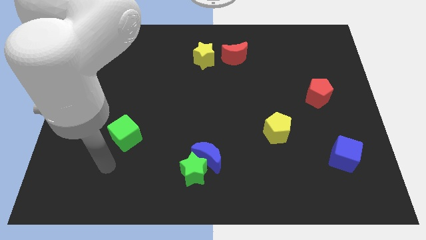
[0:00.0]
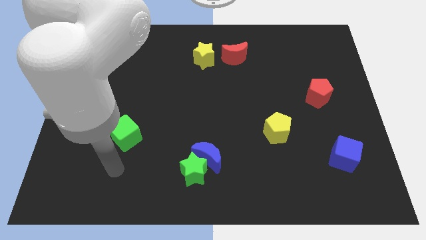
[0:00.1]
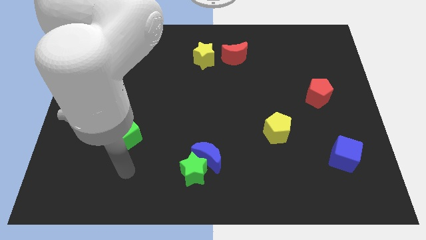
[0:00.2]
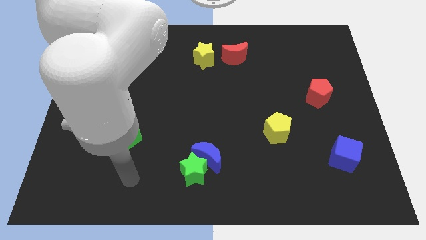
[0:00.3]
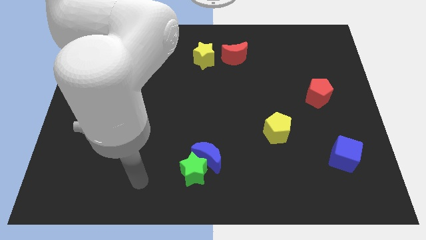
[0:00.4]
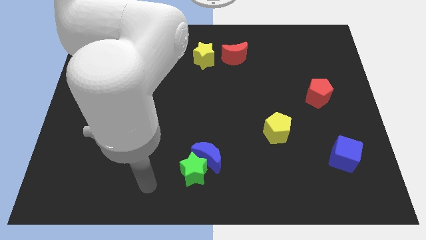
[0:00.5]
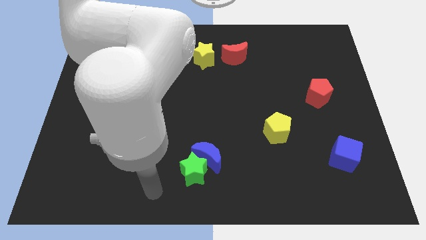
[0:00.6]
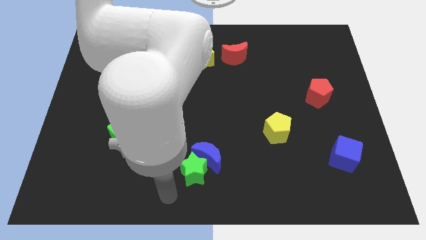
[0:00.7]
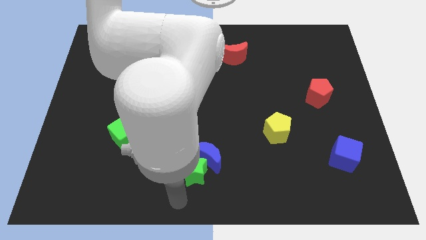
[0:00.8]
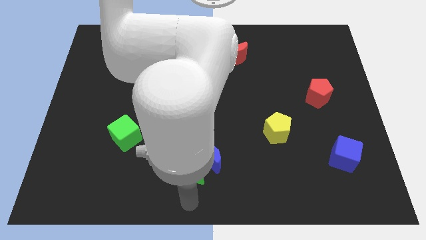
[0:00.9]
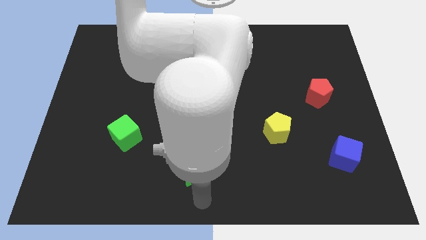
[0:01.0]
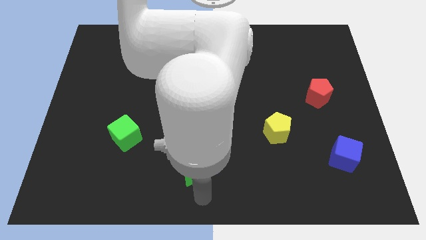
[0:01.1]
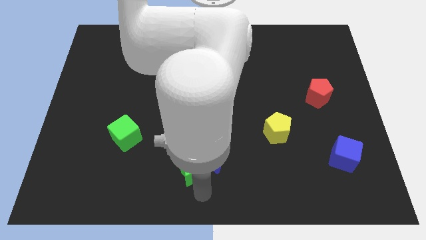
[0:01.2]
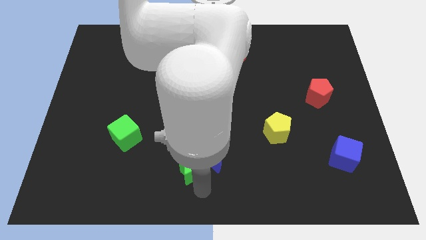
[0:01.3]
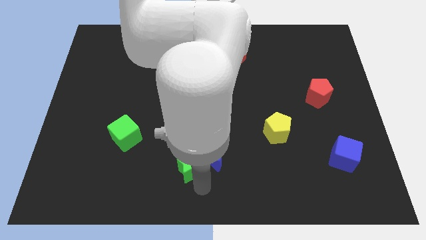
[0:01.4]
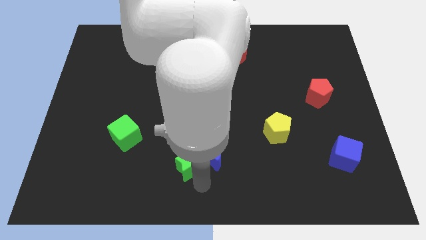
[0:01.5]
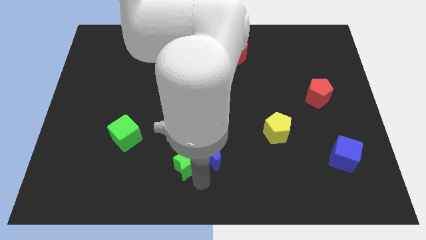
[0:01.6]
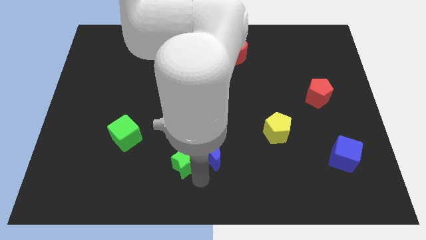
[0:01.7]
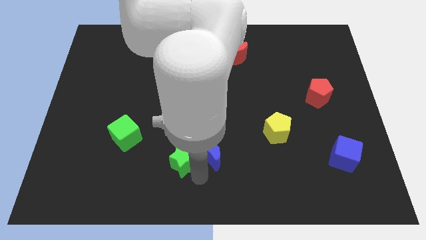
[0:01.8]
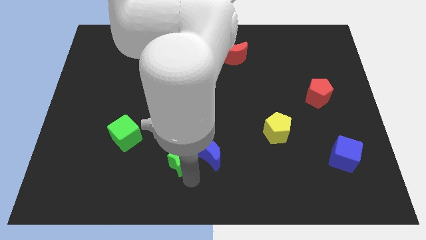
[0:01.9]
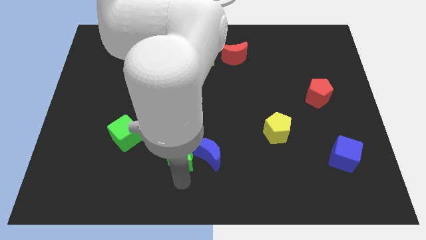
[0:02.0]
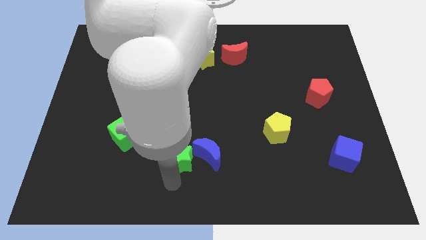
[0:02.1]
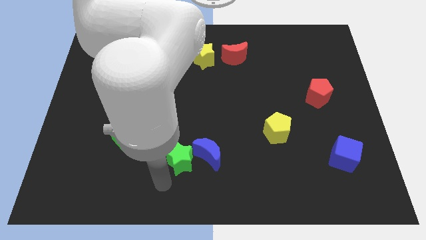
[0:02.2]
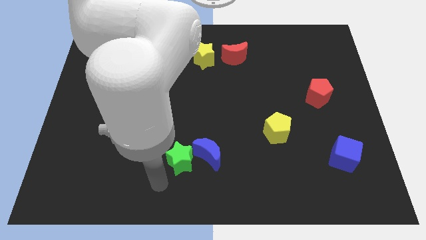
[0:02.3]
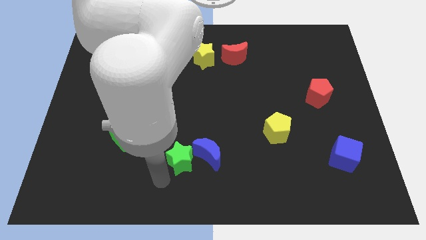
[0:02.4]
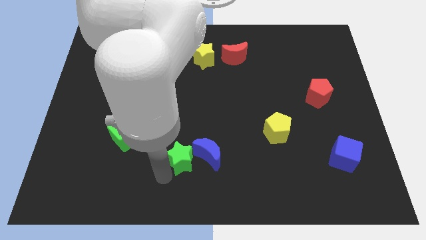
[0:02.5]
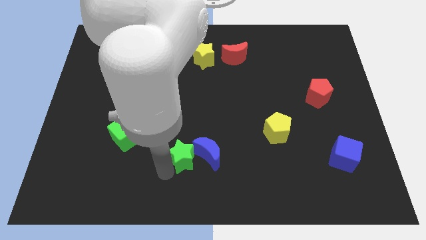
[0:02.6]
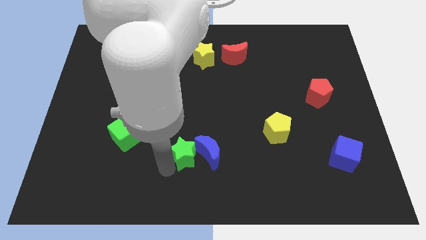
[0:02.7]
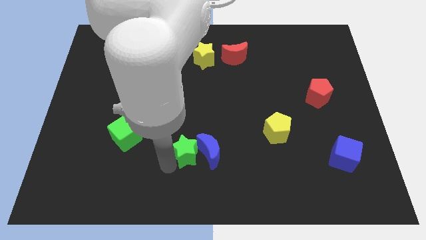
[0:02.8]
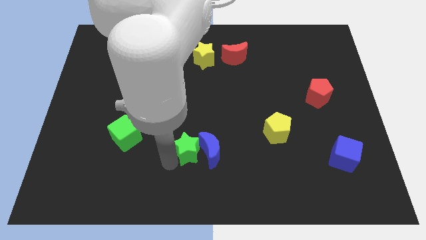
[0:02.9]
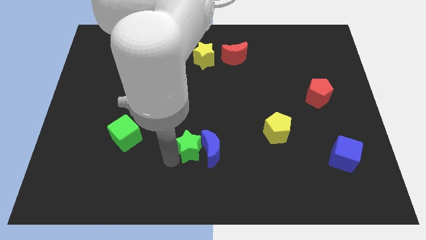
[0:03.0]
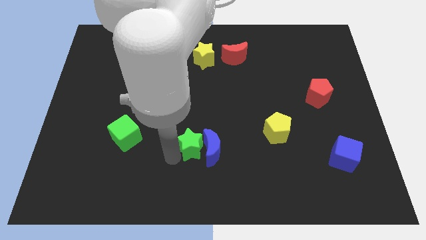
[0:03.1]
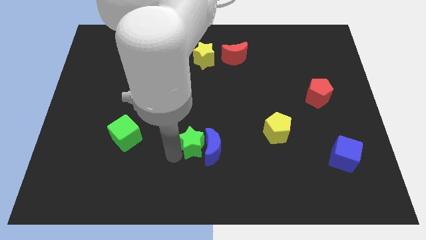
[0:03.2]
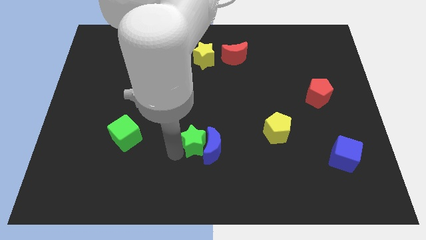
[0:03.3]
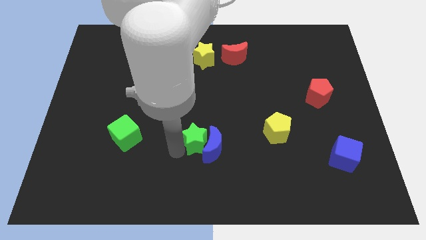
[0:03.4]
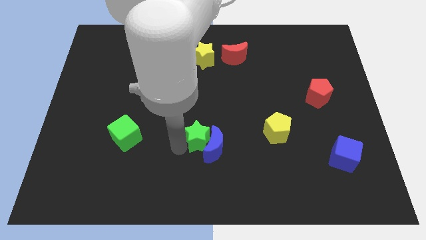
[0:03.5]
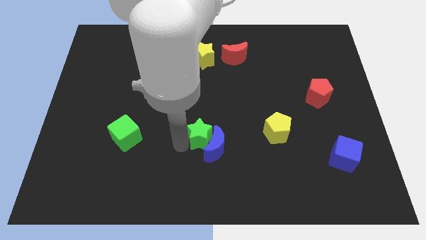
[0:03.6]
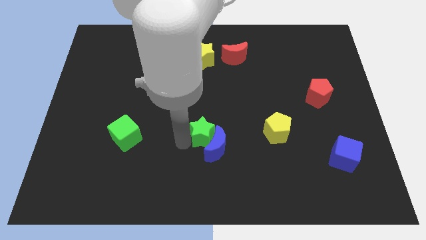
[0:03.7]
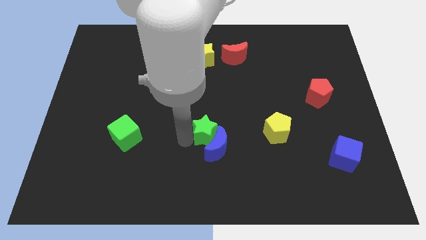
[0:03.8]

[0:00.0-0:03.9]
push the green star upwards and to the right a bit

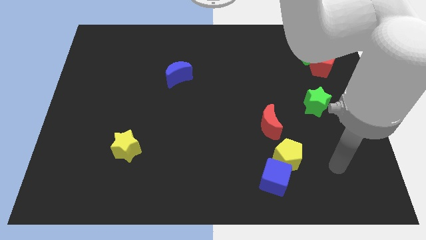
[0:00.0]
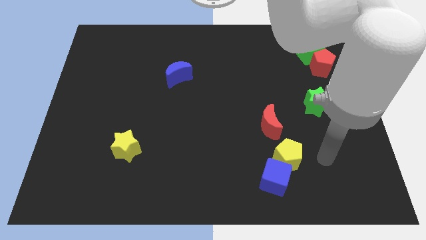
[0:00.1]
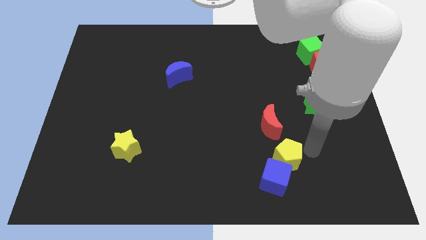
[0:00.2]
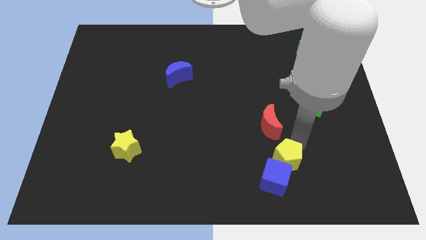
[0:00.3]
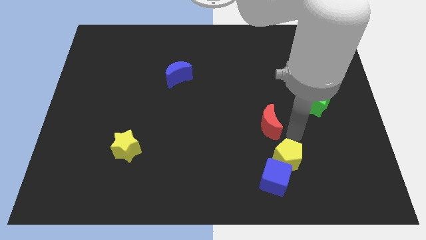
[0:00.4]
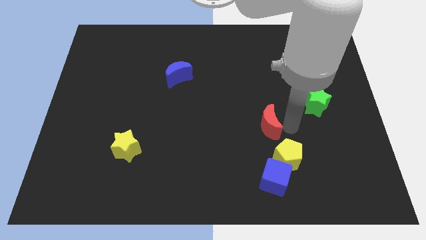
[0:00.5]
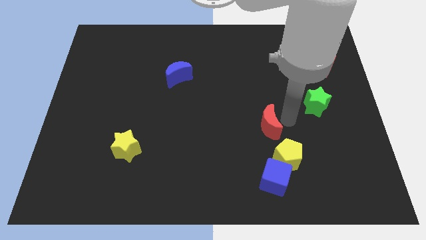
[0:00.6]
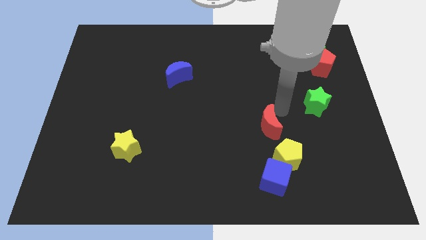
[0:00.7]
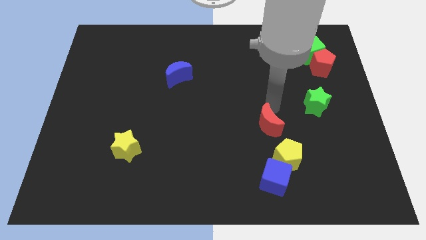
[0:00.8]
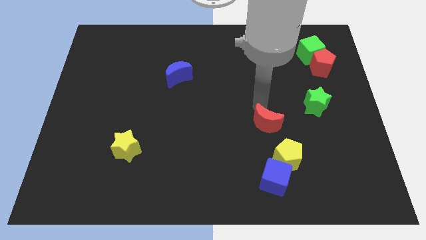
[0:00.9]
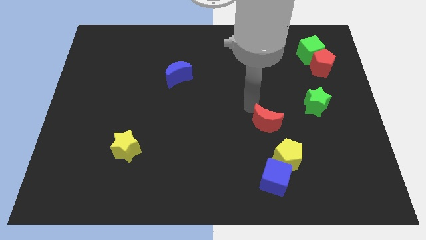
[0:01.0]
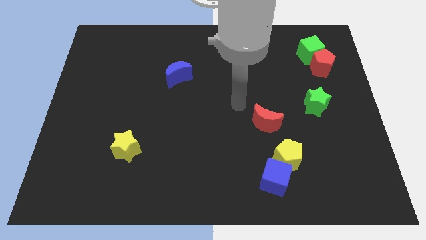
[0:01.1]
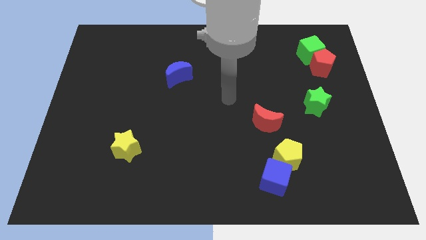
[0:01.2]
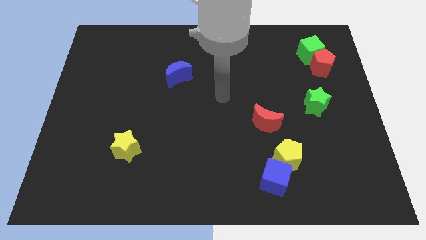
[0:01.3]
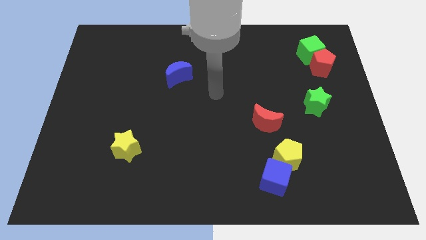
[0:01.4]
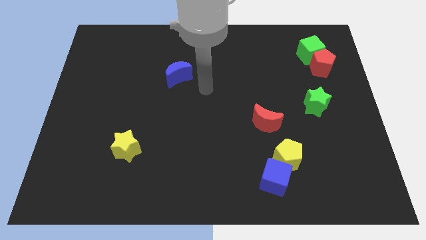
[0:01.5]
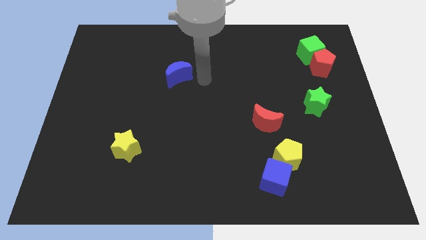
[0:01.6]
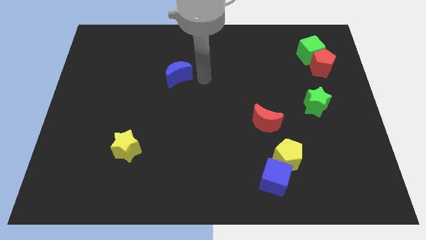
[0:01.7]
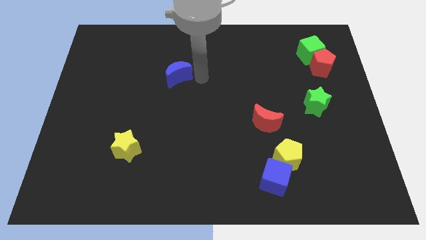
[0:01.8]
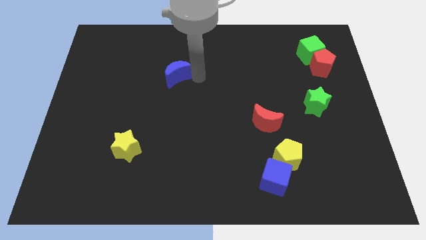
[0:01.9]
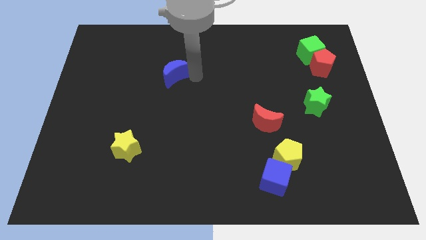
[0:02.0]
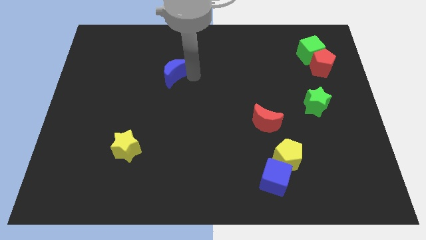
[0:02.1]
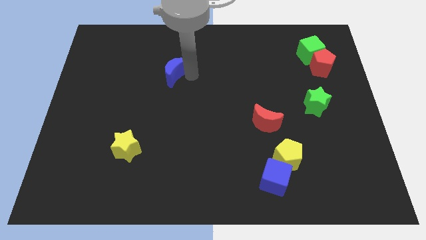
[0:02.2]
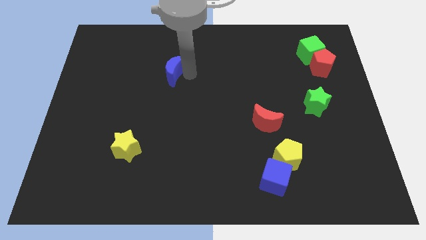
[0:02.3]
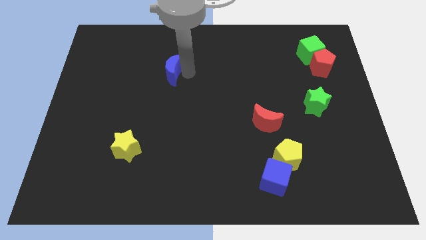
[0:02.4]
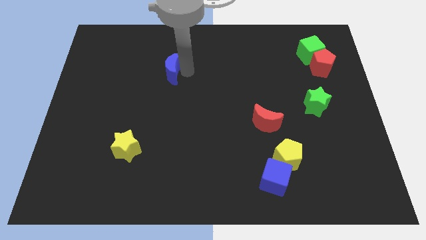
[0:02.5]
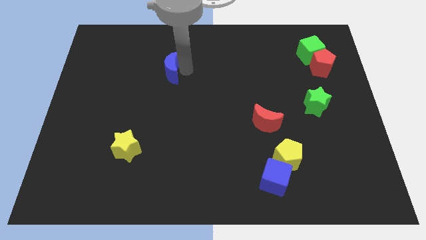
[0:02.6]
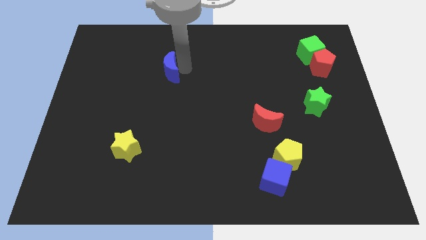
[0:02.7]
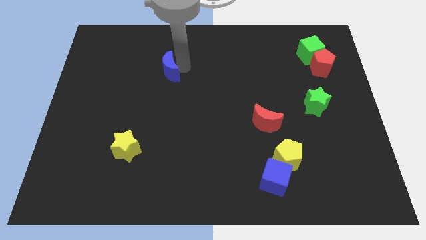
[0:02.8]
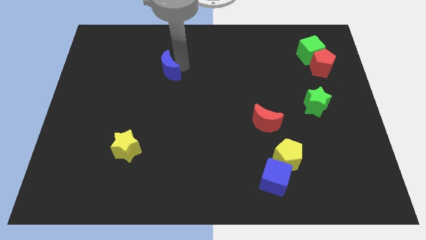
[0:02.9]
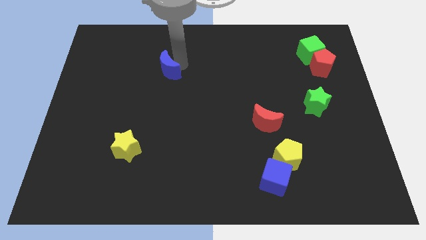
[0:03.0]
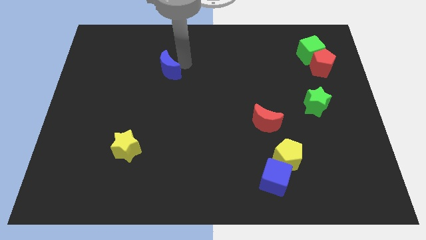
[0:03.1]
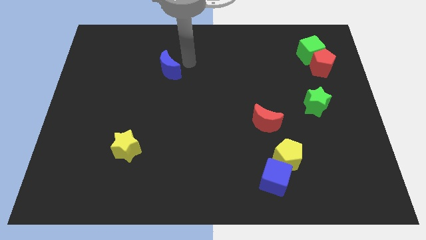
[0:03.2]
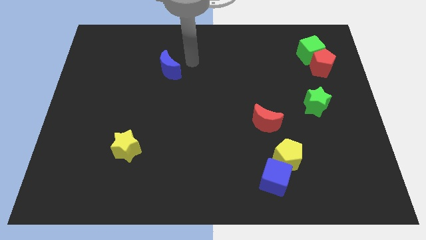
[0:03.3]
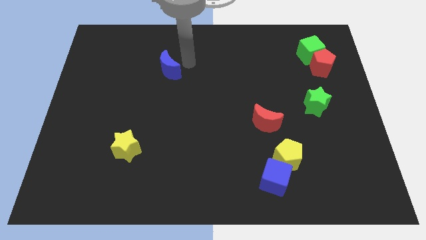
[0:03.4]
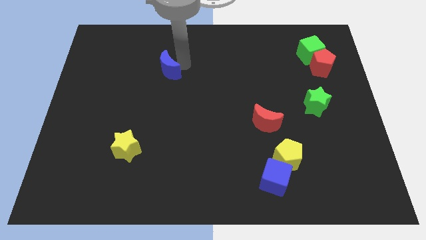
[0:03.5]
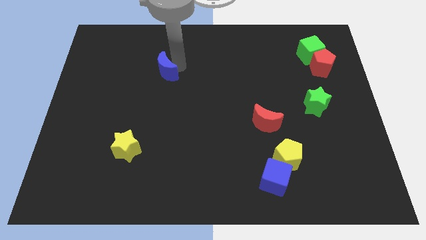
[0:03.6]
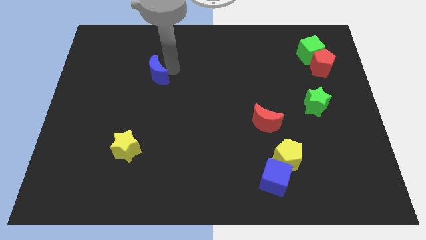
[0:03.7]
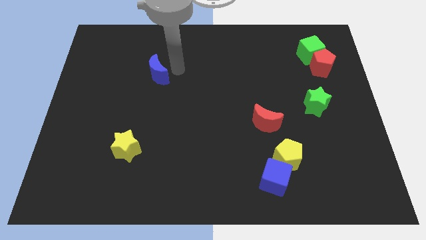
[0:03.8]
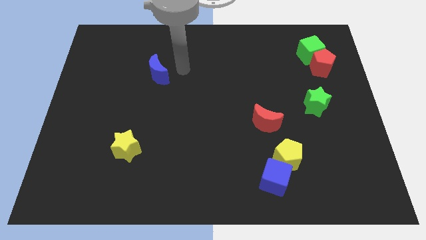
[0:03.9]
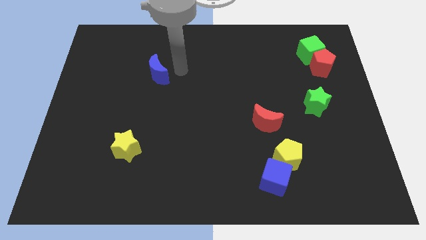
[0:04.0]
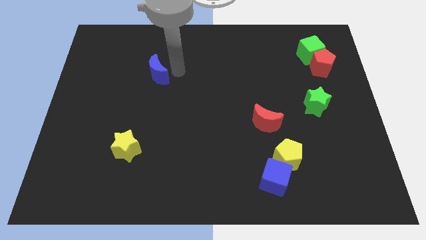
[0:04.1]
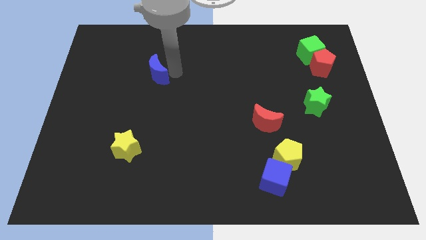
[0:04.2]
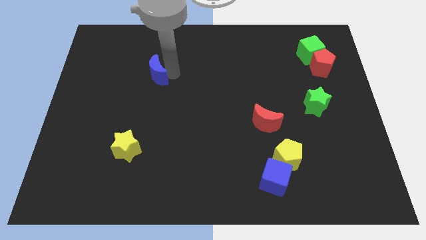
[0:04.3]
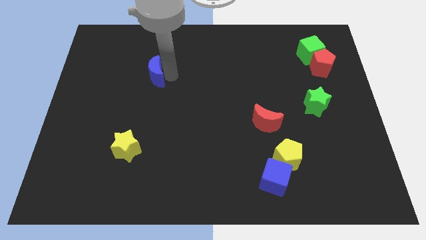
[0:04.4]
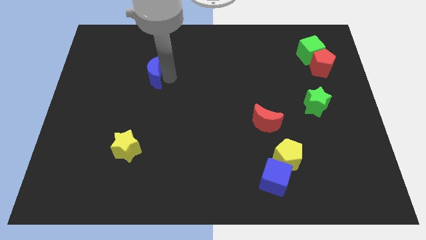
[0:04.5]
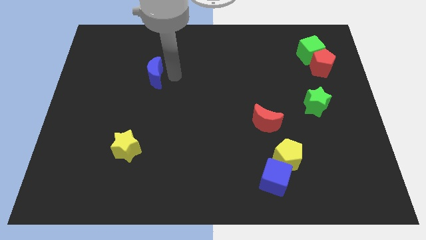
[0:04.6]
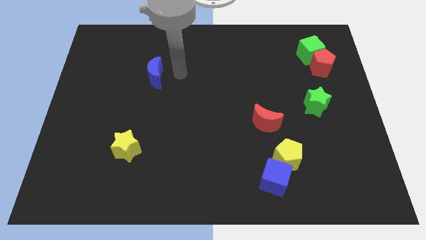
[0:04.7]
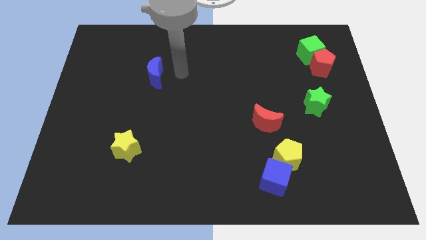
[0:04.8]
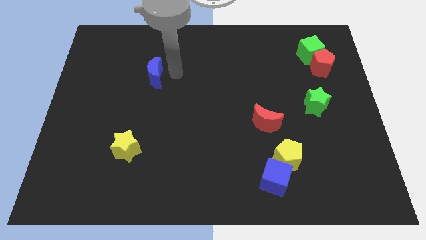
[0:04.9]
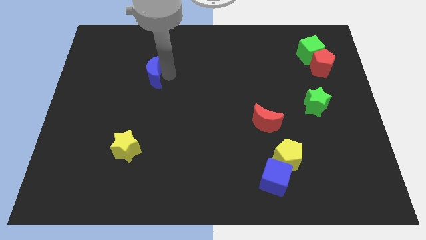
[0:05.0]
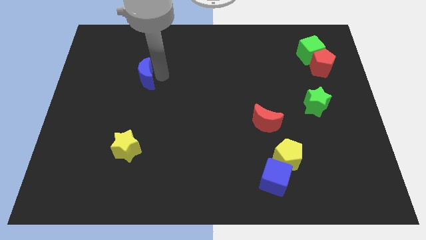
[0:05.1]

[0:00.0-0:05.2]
slide the blue moon a bit to the left
